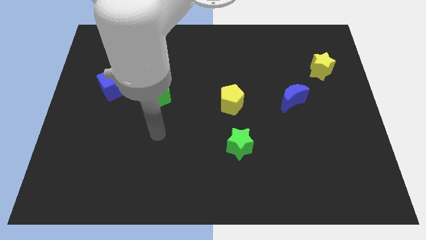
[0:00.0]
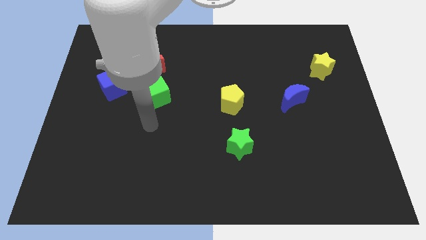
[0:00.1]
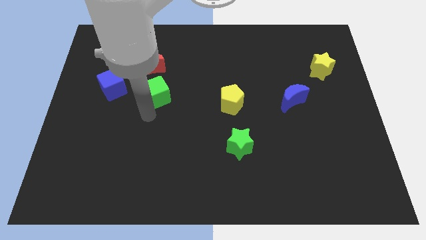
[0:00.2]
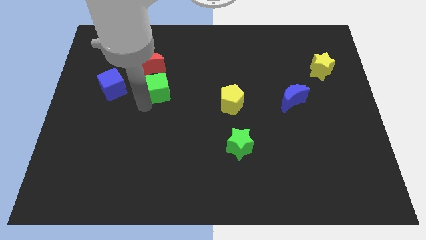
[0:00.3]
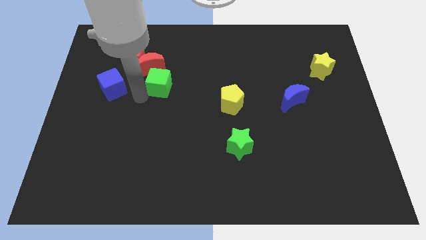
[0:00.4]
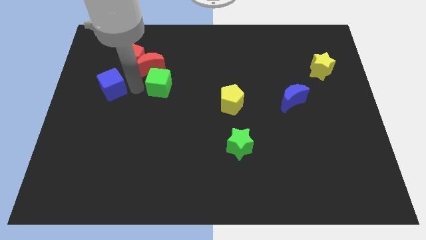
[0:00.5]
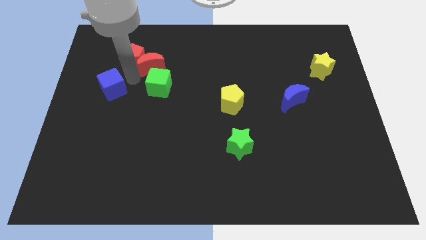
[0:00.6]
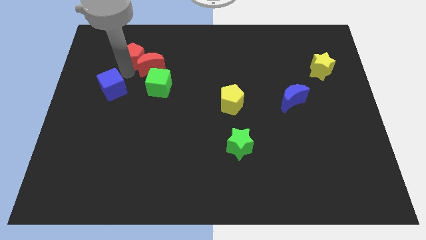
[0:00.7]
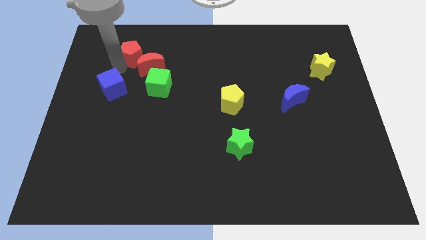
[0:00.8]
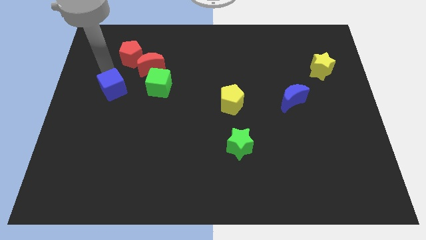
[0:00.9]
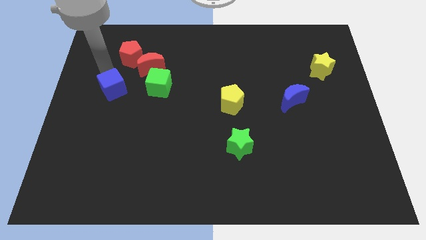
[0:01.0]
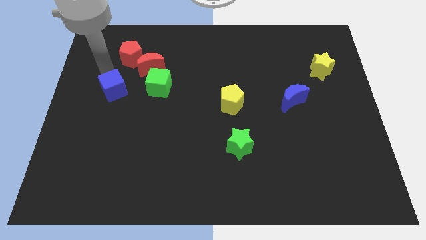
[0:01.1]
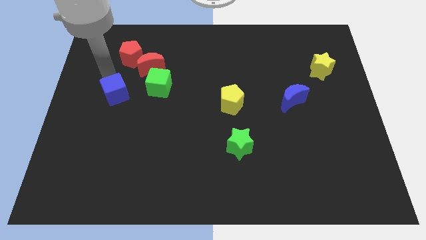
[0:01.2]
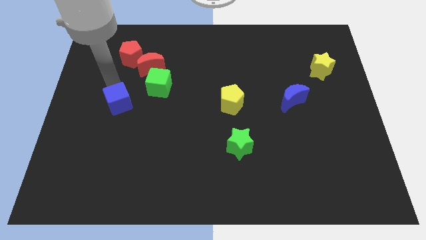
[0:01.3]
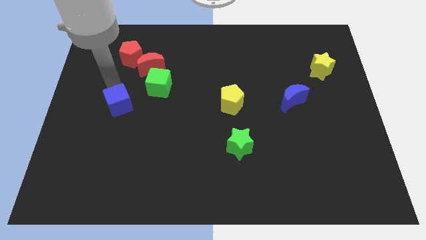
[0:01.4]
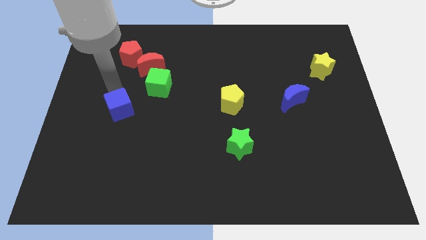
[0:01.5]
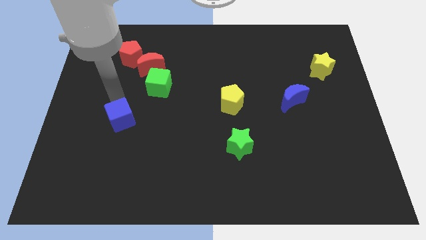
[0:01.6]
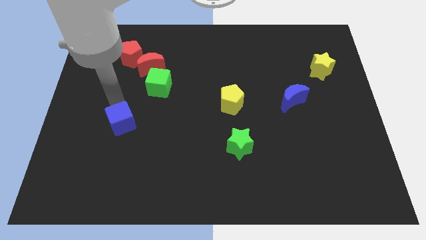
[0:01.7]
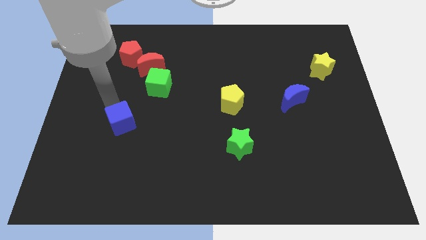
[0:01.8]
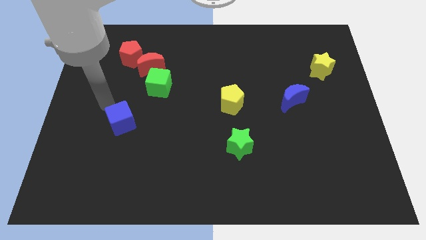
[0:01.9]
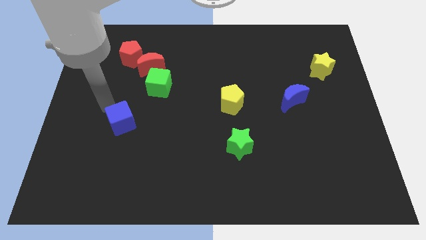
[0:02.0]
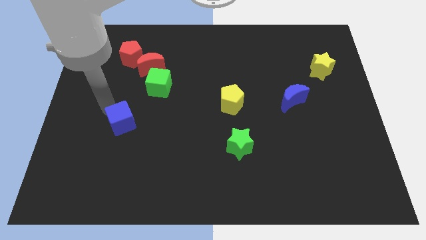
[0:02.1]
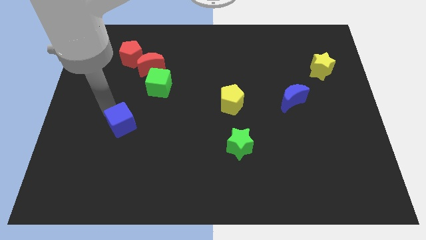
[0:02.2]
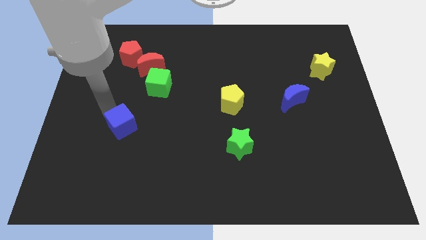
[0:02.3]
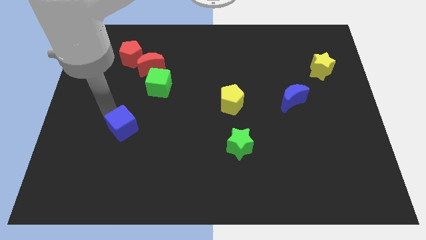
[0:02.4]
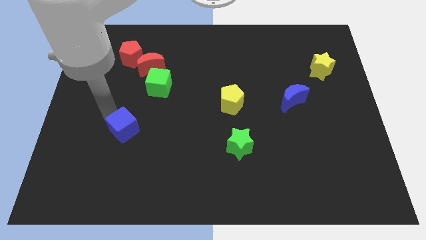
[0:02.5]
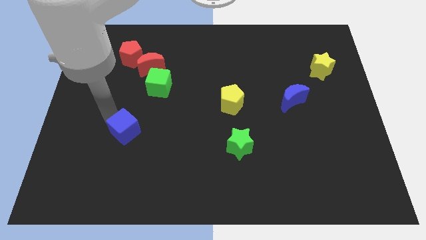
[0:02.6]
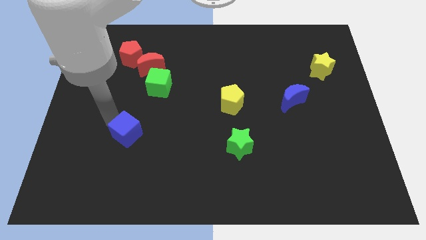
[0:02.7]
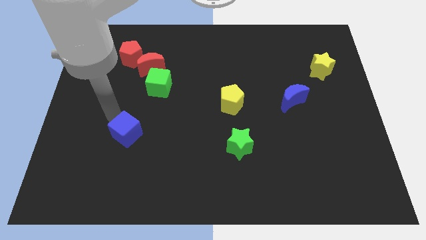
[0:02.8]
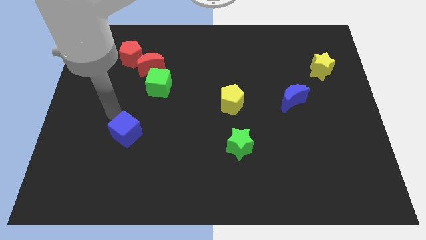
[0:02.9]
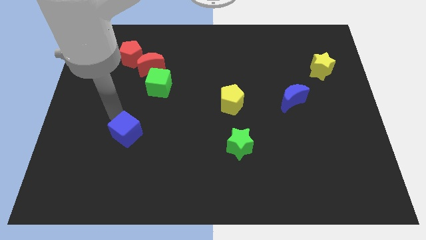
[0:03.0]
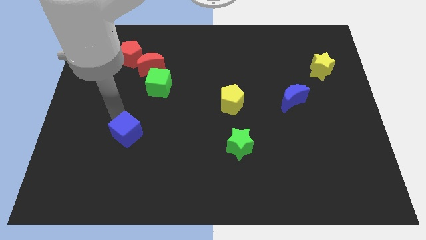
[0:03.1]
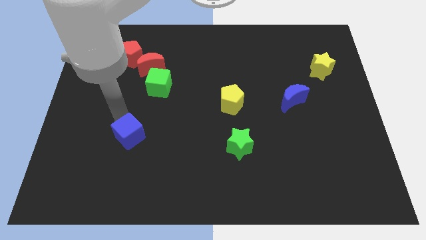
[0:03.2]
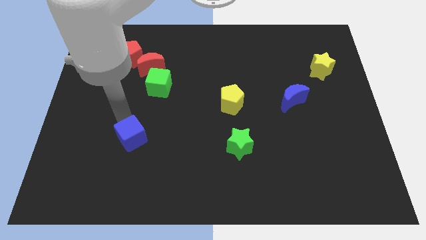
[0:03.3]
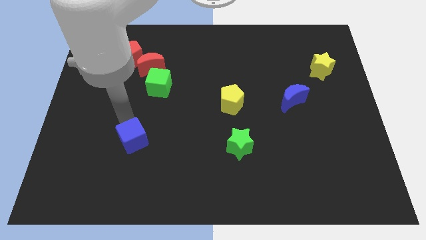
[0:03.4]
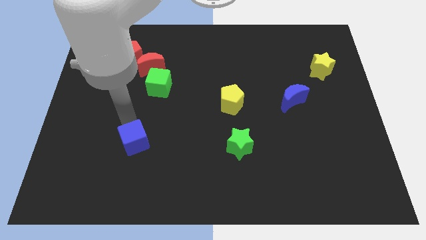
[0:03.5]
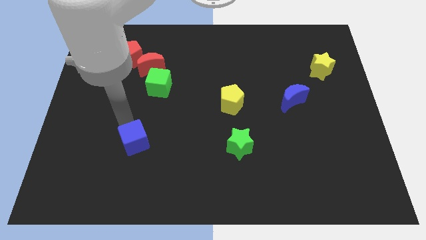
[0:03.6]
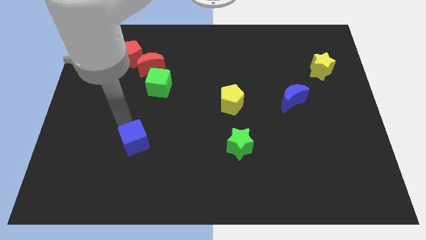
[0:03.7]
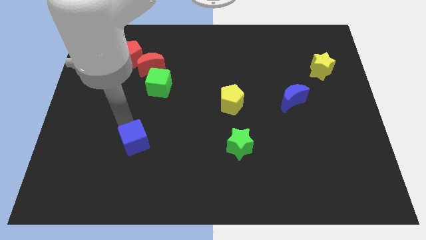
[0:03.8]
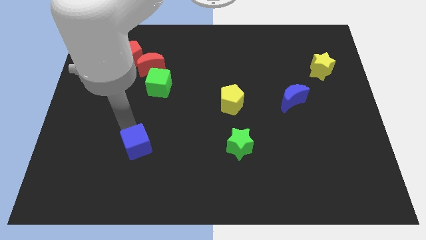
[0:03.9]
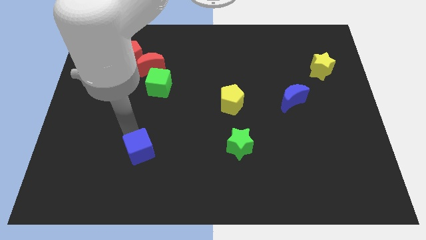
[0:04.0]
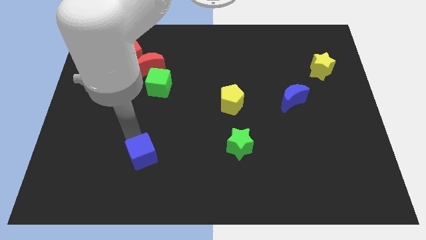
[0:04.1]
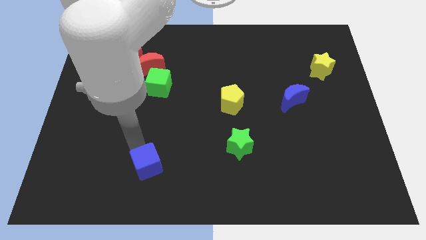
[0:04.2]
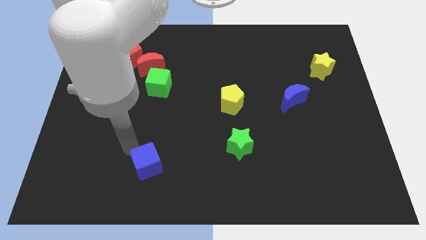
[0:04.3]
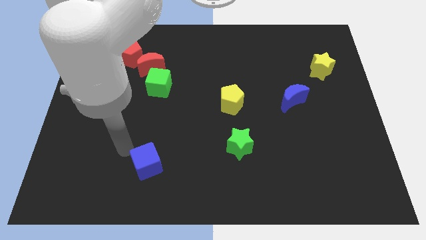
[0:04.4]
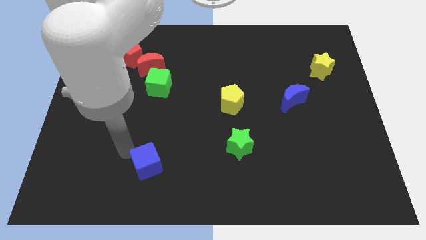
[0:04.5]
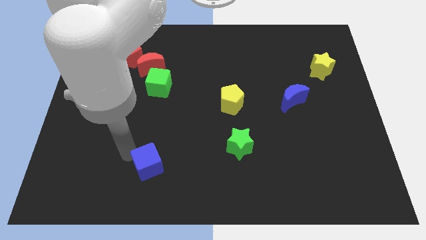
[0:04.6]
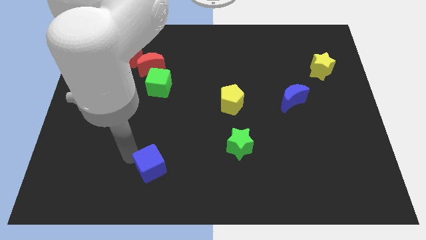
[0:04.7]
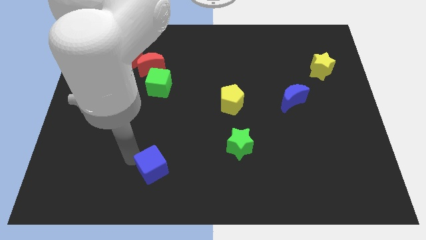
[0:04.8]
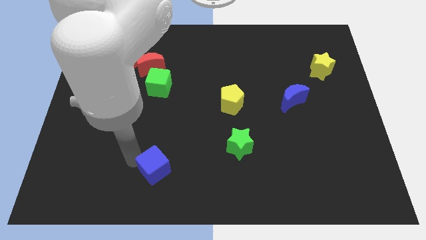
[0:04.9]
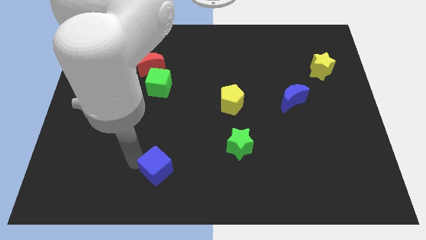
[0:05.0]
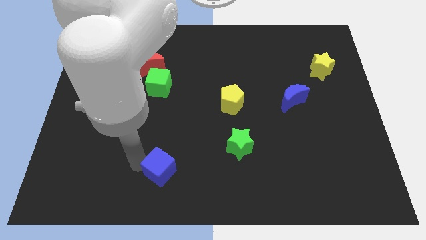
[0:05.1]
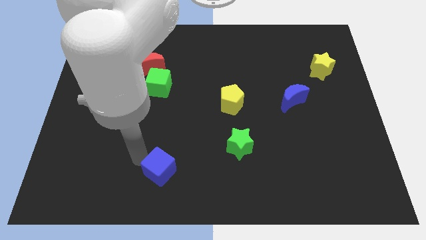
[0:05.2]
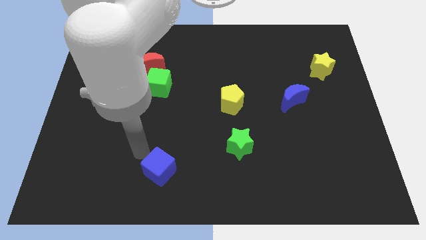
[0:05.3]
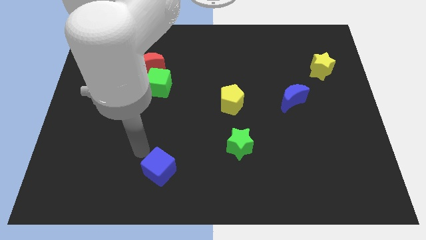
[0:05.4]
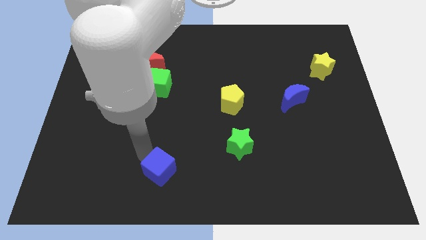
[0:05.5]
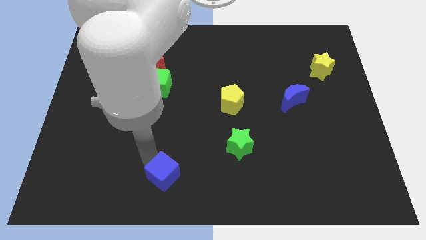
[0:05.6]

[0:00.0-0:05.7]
slide the blue cube to the bottom side
